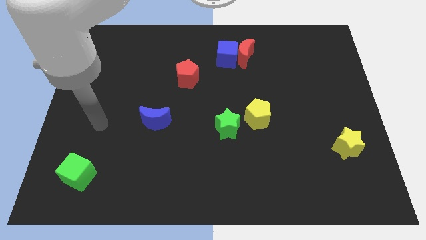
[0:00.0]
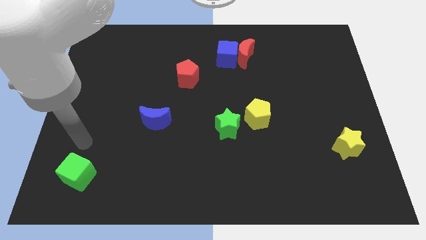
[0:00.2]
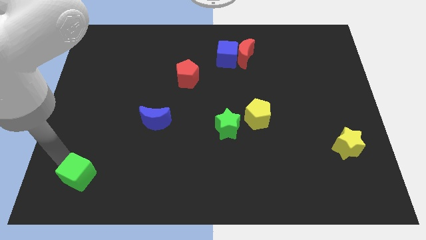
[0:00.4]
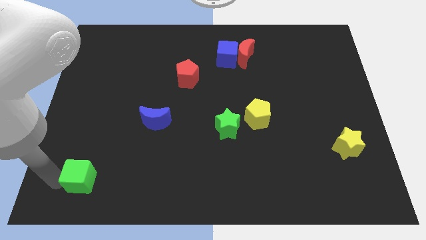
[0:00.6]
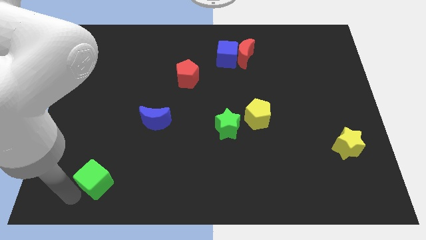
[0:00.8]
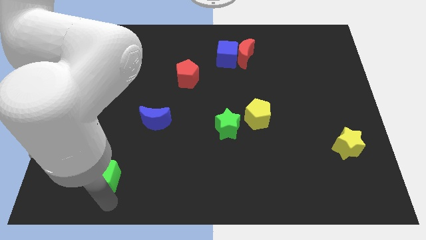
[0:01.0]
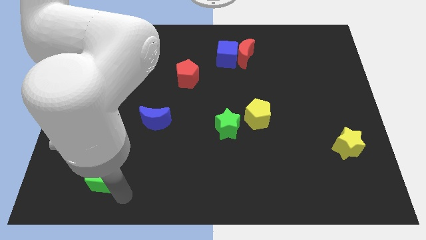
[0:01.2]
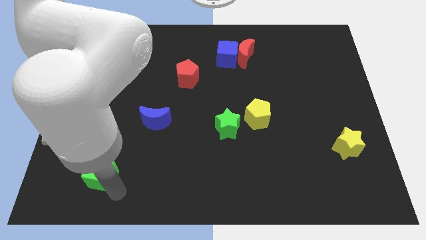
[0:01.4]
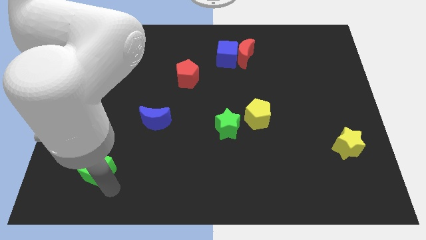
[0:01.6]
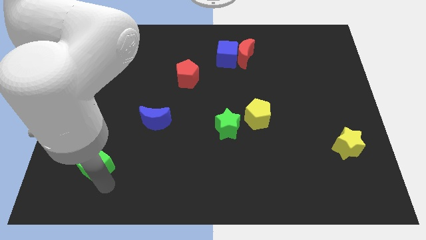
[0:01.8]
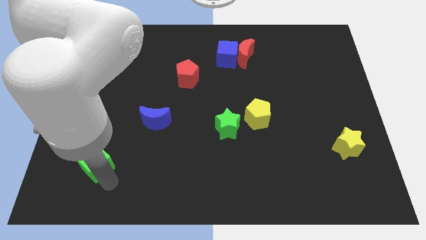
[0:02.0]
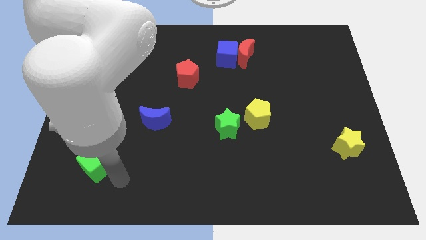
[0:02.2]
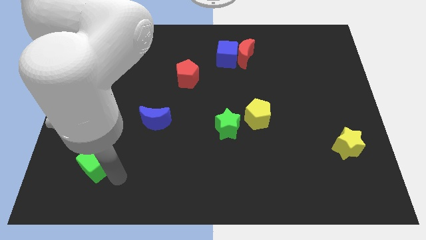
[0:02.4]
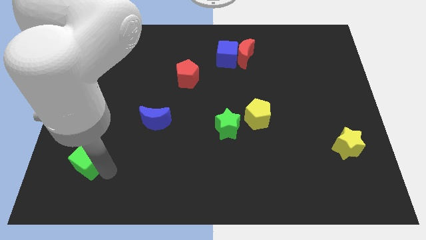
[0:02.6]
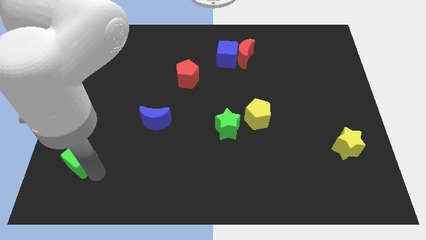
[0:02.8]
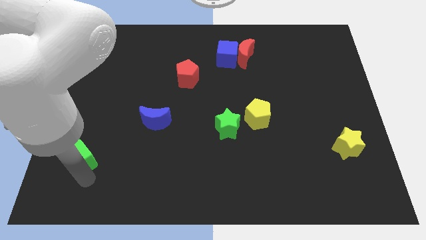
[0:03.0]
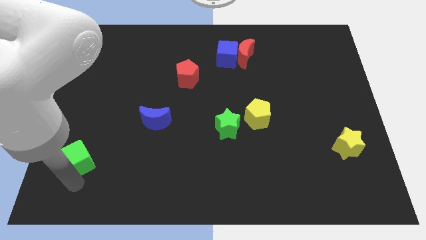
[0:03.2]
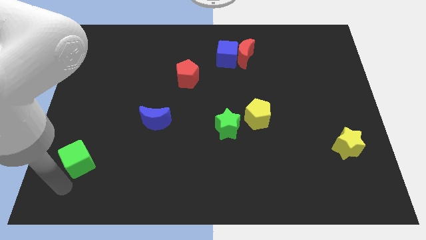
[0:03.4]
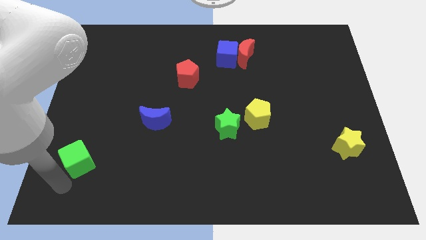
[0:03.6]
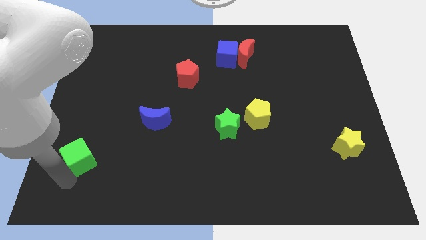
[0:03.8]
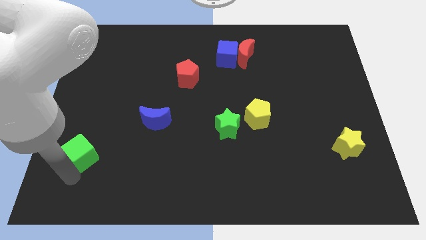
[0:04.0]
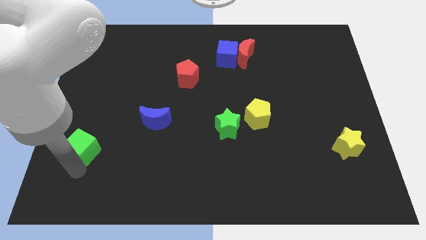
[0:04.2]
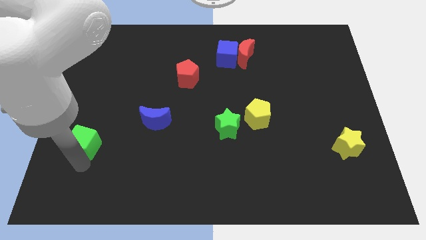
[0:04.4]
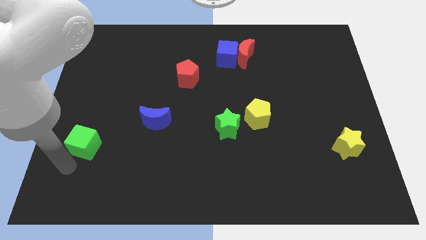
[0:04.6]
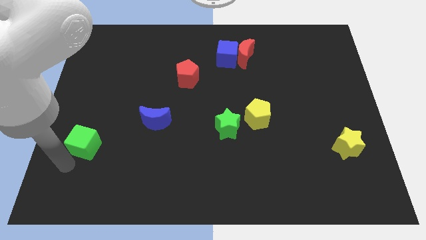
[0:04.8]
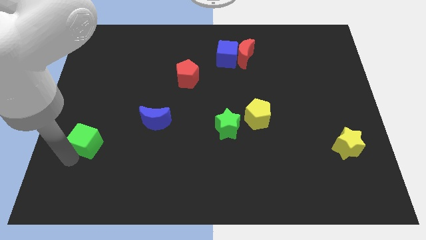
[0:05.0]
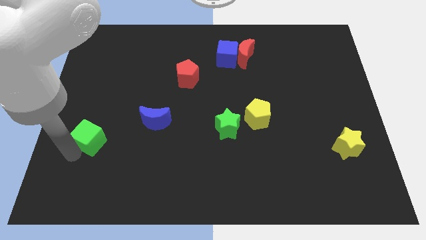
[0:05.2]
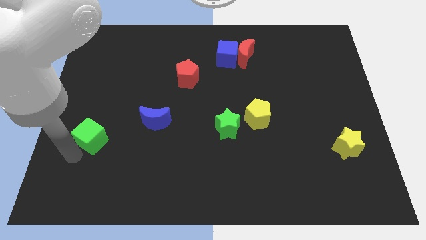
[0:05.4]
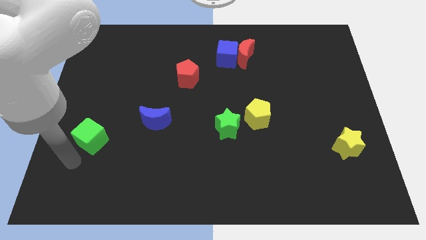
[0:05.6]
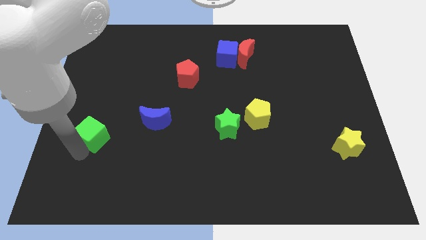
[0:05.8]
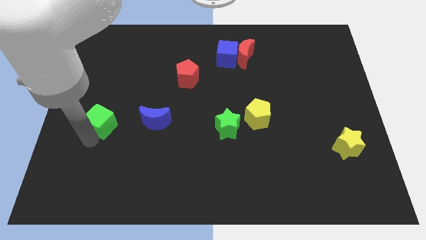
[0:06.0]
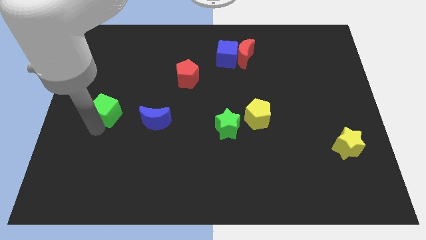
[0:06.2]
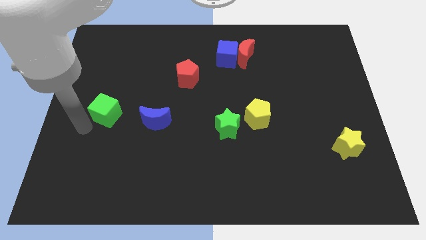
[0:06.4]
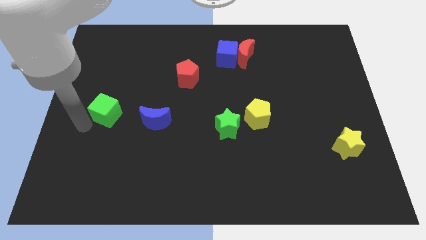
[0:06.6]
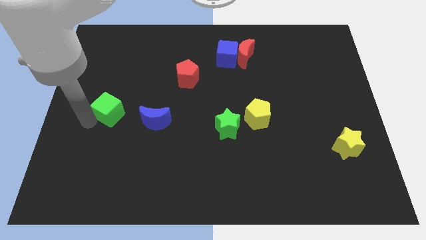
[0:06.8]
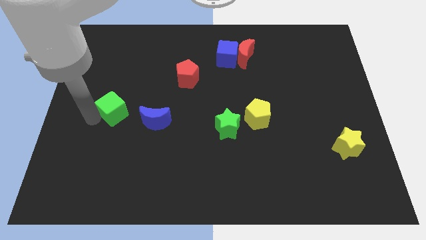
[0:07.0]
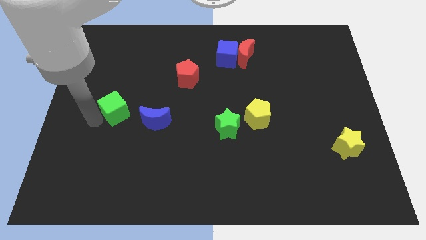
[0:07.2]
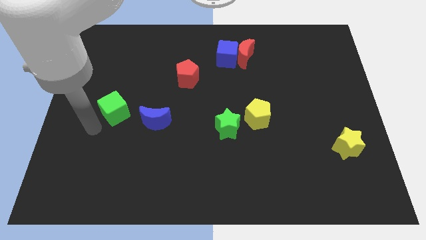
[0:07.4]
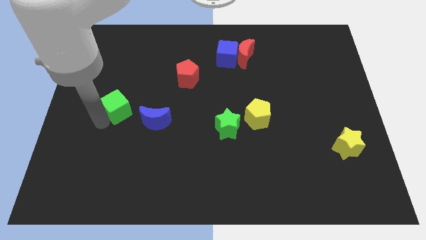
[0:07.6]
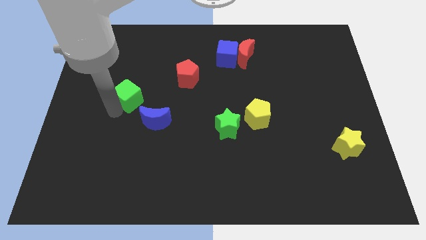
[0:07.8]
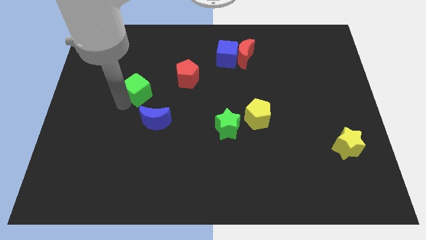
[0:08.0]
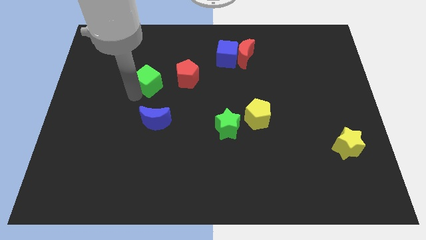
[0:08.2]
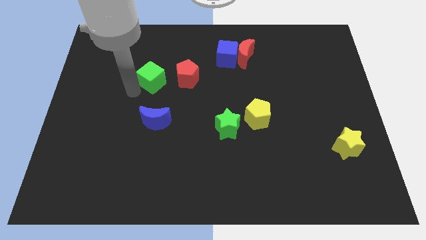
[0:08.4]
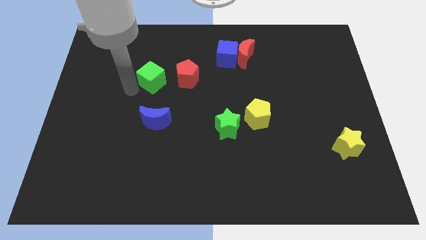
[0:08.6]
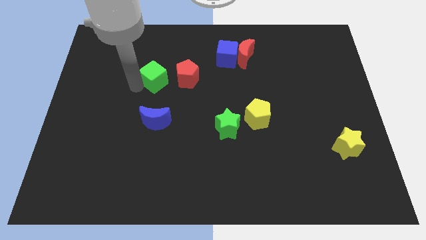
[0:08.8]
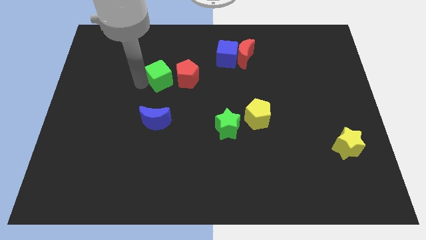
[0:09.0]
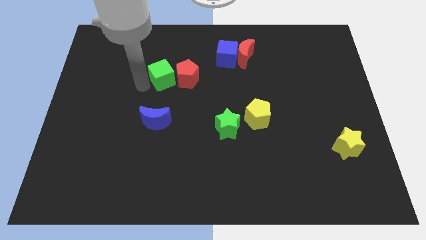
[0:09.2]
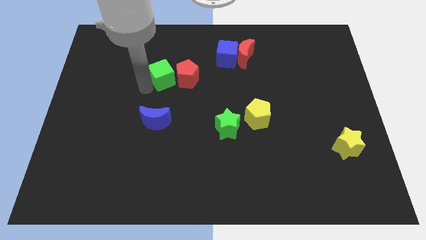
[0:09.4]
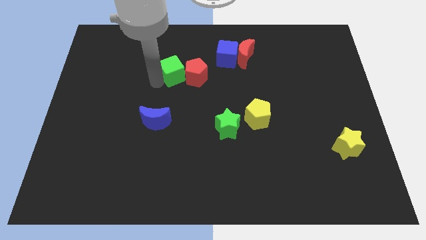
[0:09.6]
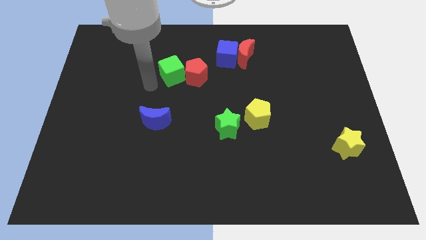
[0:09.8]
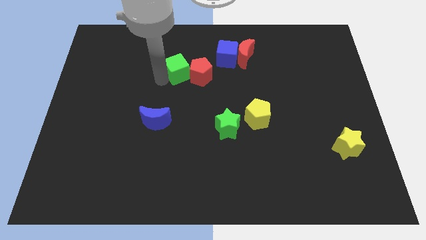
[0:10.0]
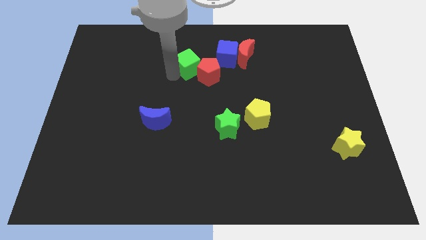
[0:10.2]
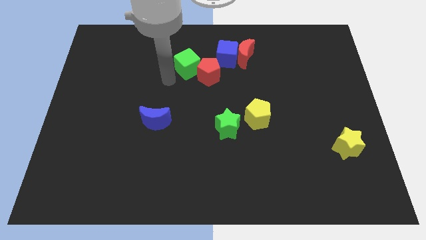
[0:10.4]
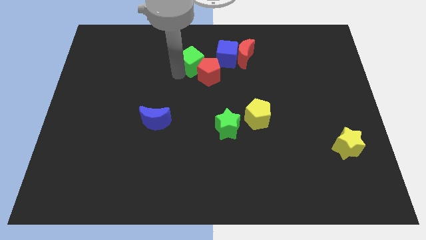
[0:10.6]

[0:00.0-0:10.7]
push the green cube left of the red moon

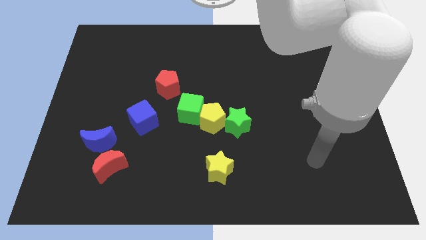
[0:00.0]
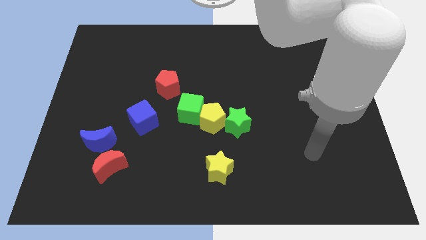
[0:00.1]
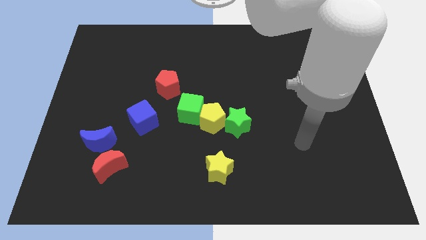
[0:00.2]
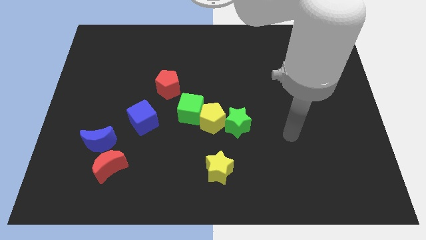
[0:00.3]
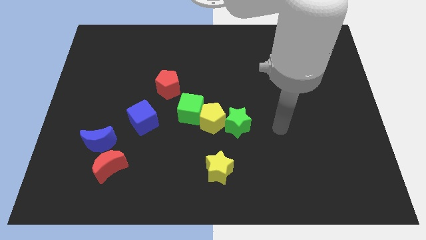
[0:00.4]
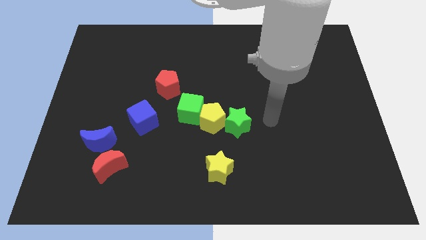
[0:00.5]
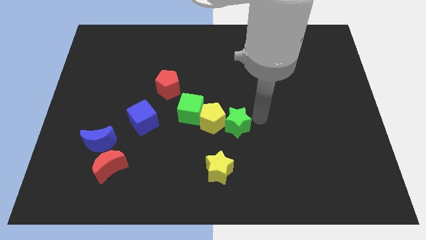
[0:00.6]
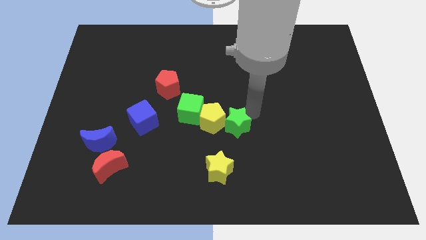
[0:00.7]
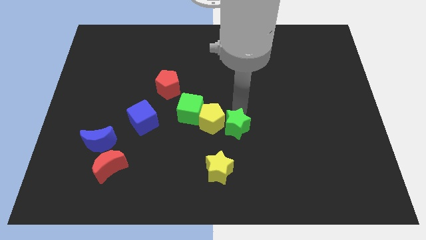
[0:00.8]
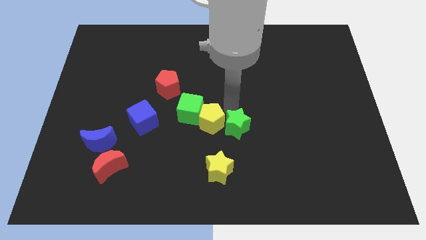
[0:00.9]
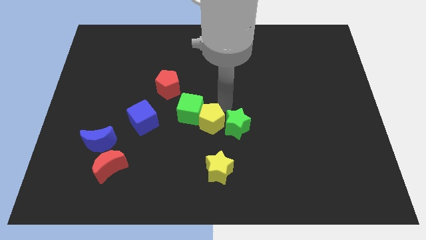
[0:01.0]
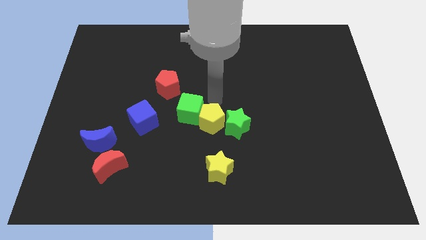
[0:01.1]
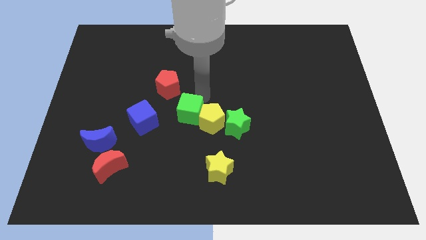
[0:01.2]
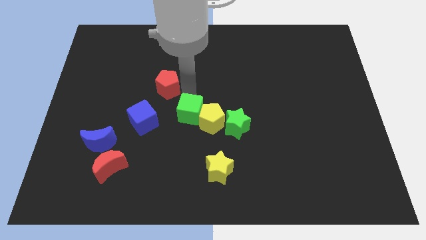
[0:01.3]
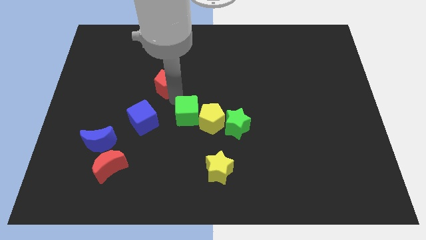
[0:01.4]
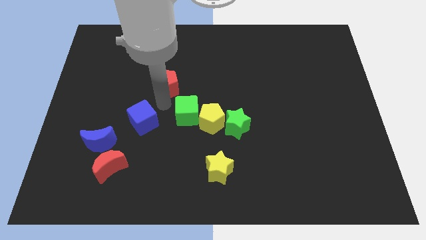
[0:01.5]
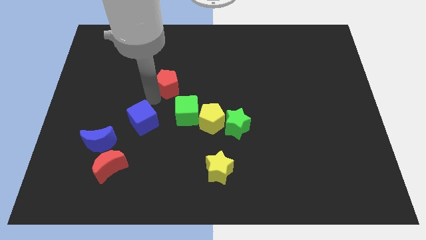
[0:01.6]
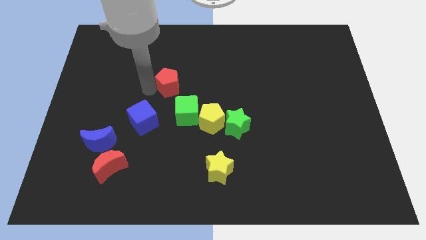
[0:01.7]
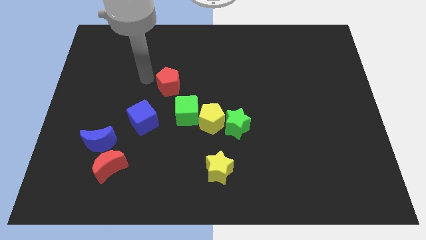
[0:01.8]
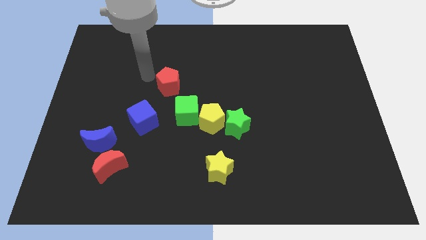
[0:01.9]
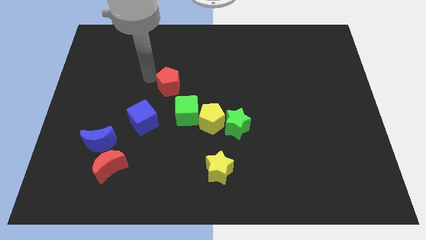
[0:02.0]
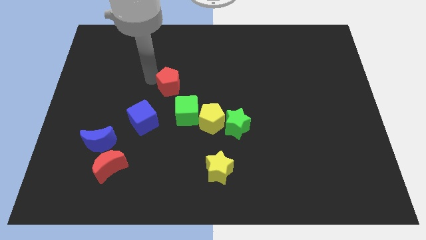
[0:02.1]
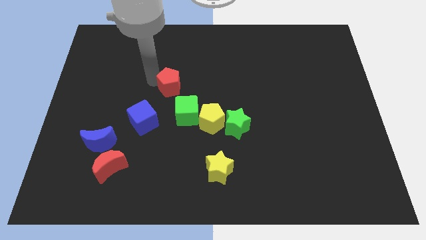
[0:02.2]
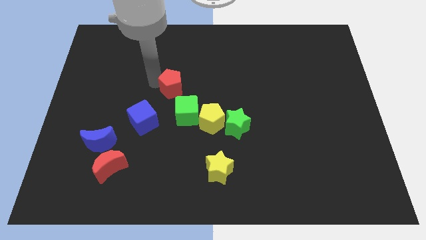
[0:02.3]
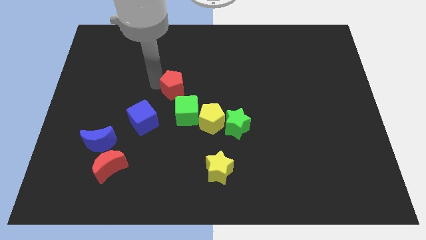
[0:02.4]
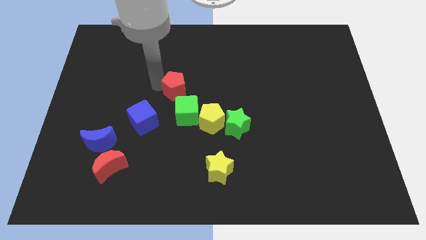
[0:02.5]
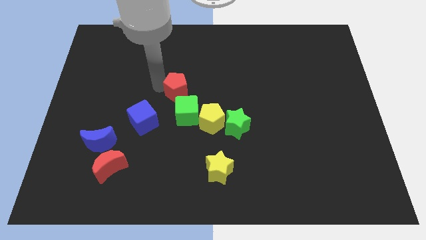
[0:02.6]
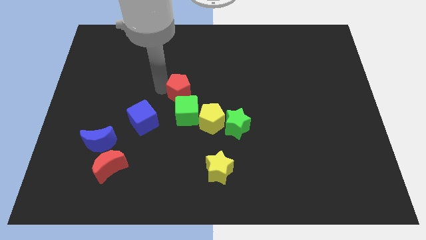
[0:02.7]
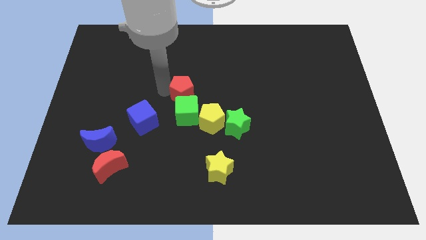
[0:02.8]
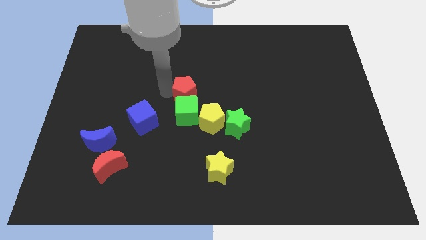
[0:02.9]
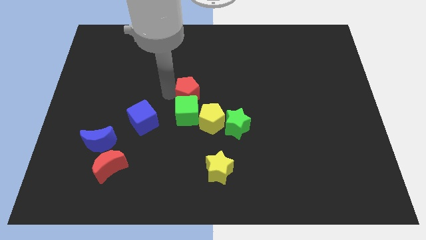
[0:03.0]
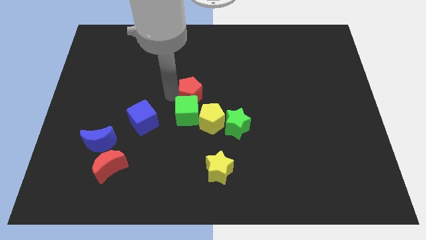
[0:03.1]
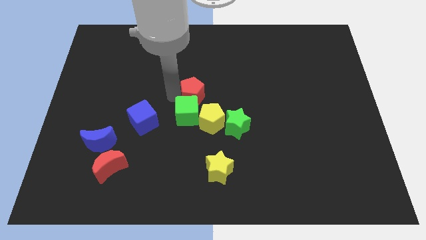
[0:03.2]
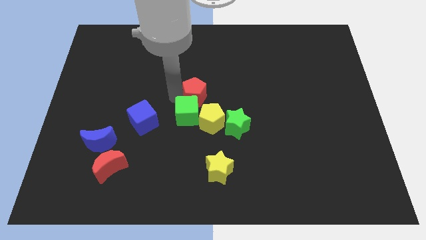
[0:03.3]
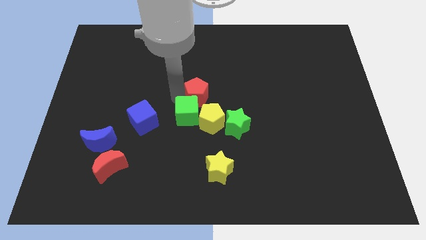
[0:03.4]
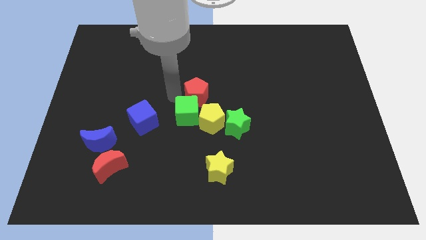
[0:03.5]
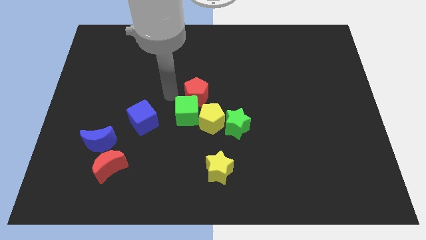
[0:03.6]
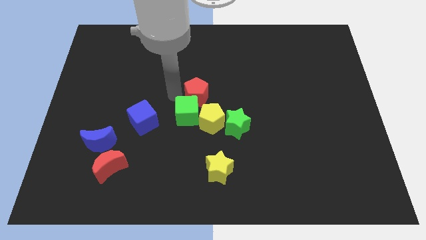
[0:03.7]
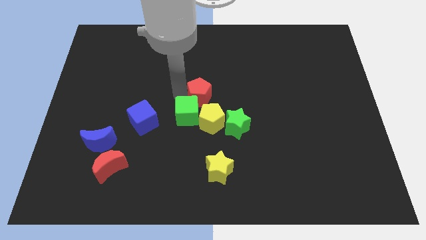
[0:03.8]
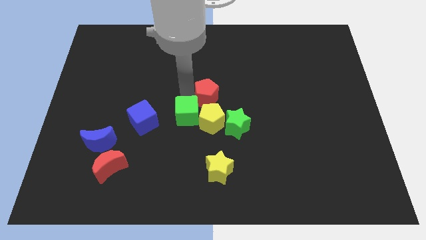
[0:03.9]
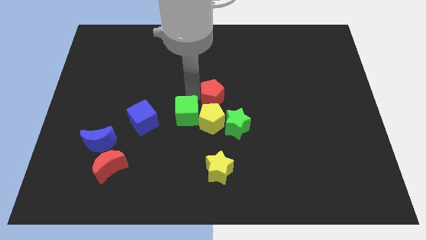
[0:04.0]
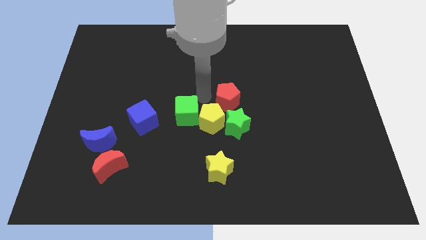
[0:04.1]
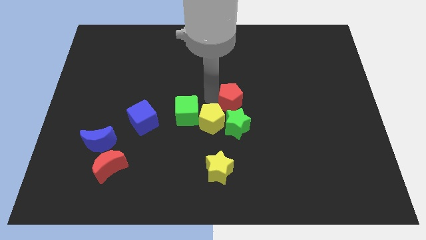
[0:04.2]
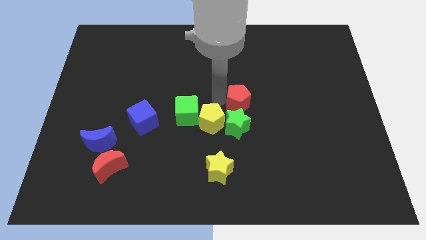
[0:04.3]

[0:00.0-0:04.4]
move the red pentagon to the top right of the green star
